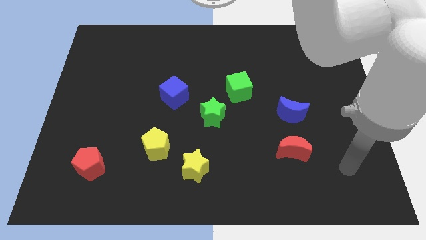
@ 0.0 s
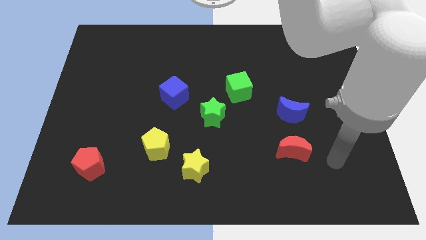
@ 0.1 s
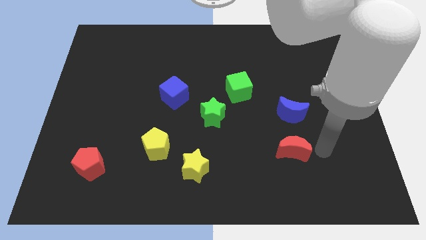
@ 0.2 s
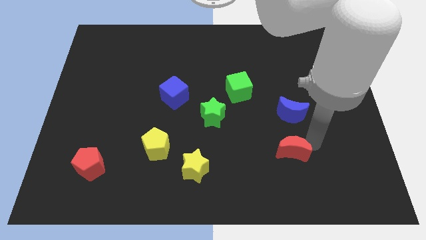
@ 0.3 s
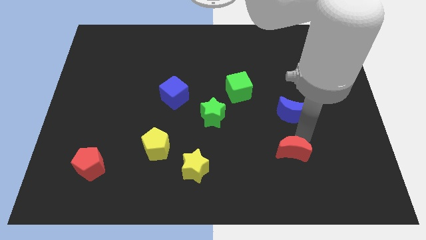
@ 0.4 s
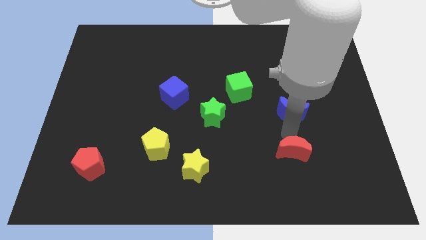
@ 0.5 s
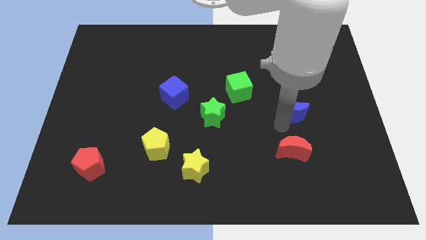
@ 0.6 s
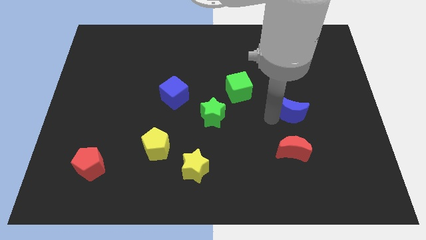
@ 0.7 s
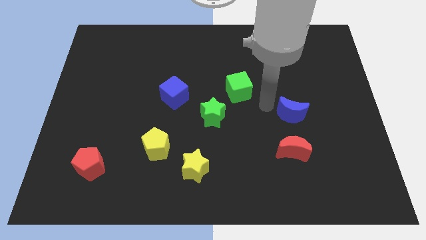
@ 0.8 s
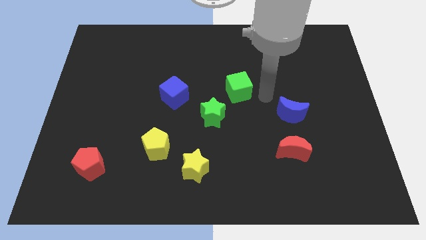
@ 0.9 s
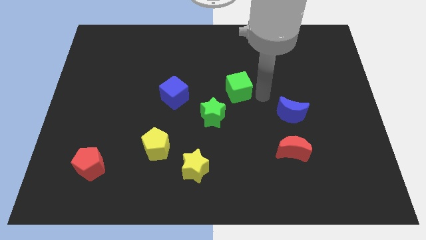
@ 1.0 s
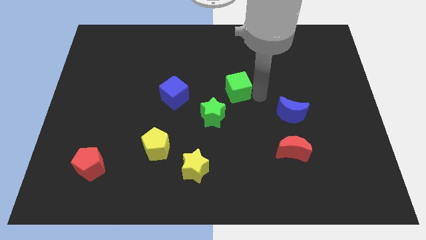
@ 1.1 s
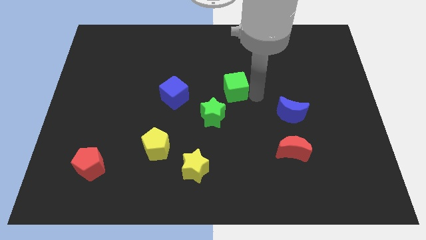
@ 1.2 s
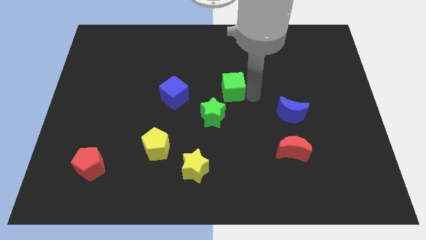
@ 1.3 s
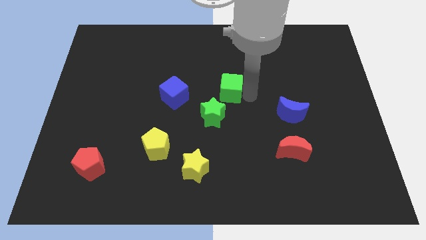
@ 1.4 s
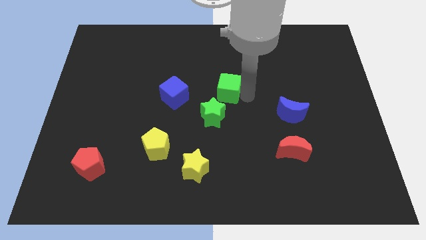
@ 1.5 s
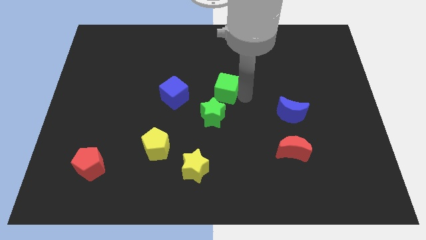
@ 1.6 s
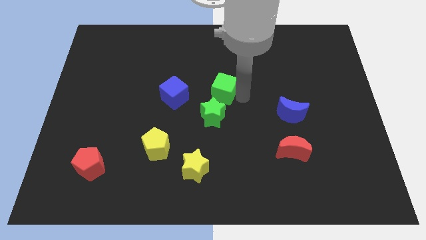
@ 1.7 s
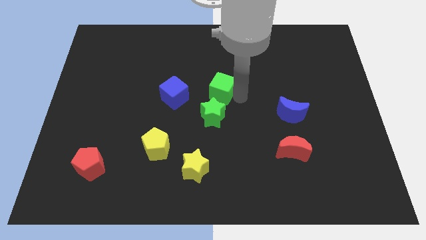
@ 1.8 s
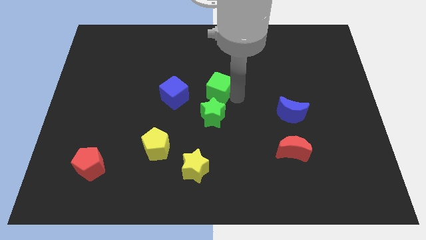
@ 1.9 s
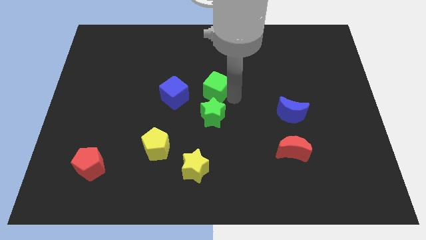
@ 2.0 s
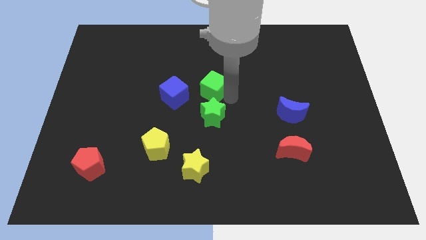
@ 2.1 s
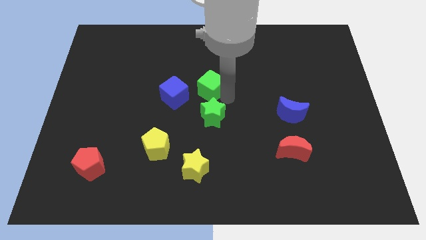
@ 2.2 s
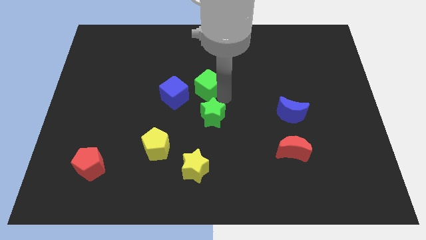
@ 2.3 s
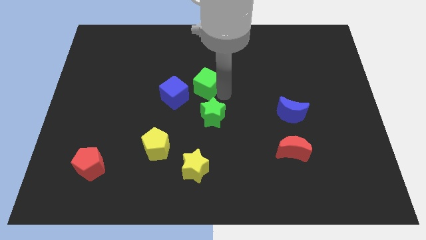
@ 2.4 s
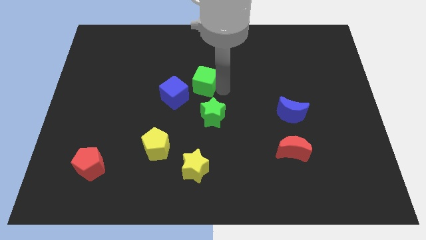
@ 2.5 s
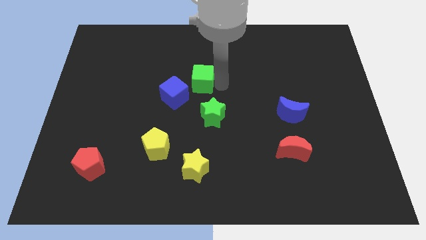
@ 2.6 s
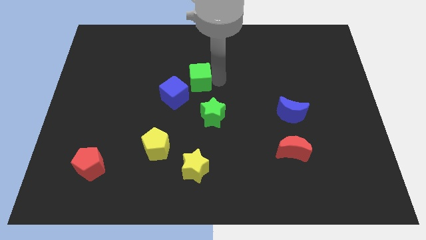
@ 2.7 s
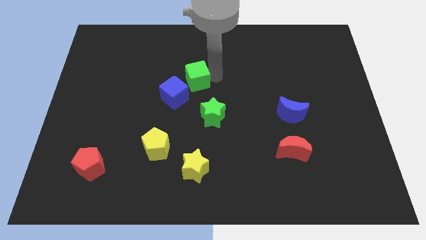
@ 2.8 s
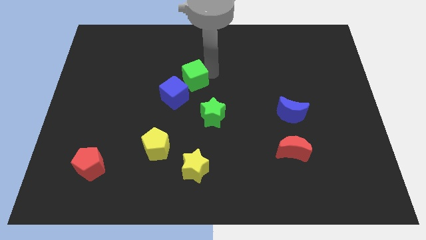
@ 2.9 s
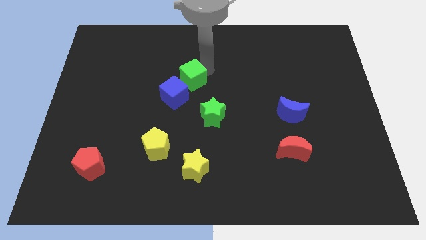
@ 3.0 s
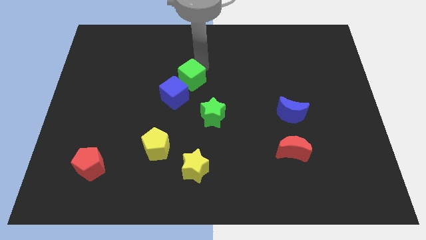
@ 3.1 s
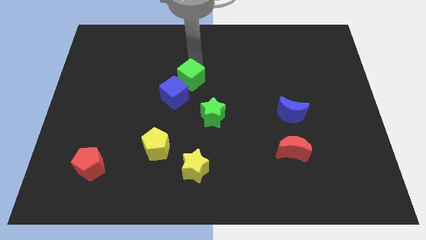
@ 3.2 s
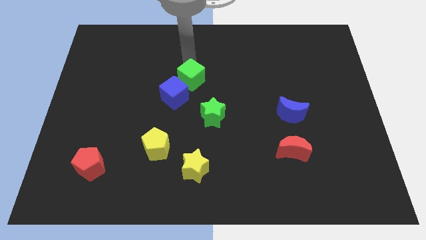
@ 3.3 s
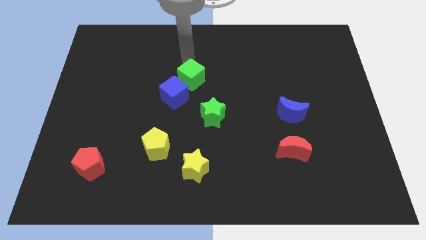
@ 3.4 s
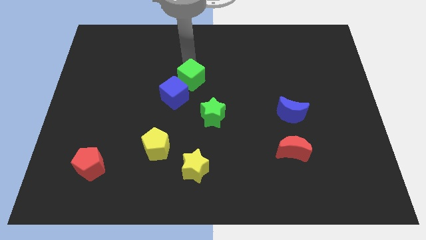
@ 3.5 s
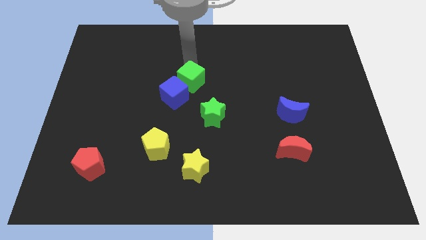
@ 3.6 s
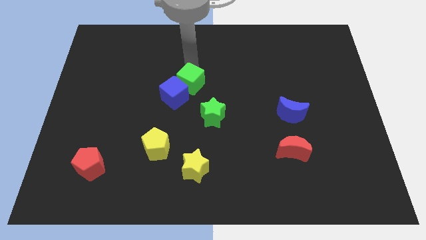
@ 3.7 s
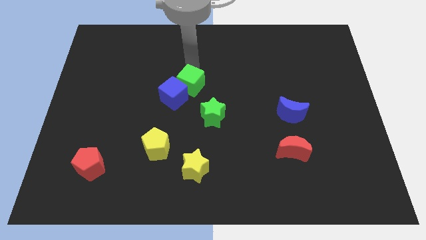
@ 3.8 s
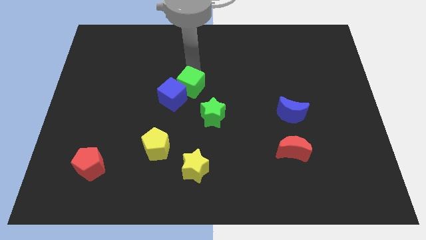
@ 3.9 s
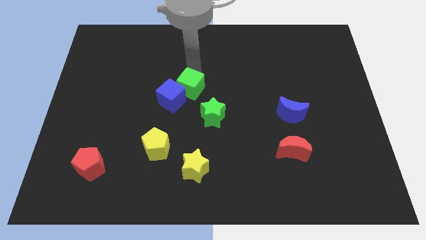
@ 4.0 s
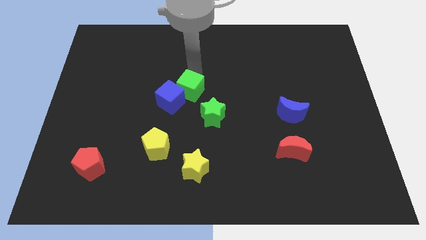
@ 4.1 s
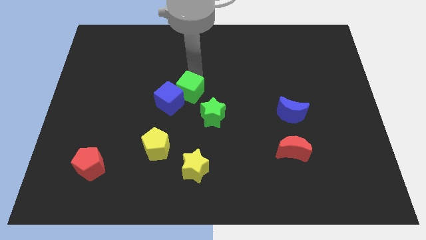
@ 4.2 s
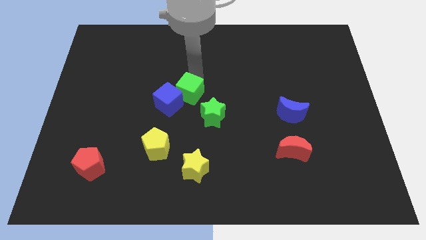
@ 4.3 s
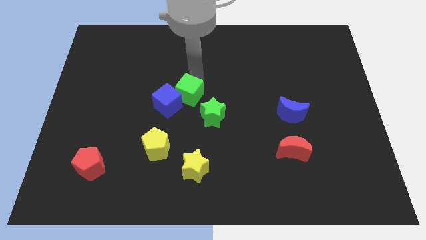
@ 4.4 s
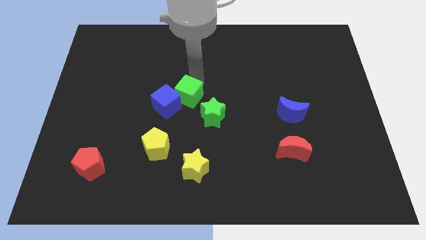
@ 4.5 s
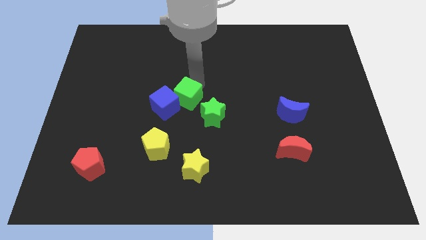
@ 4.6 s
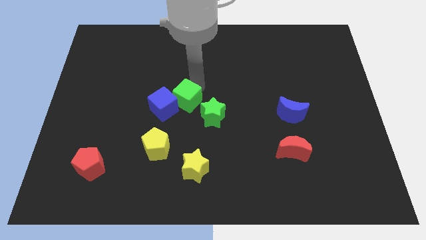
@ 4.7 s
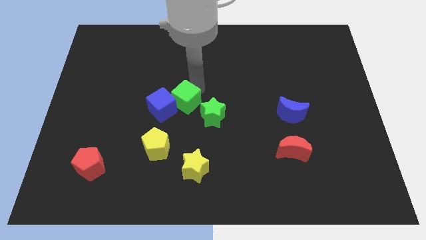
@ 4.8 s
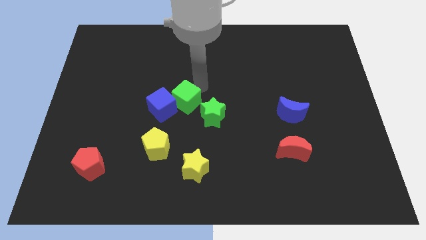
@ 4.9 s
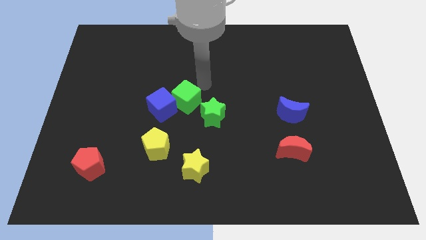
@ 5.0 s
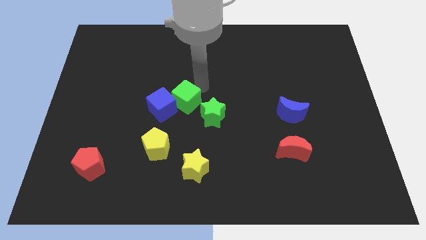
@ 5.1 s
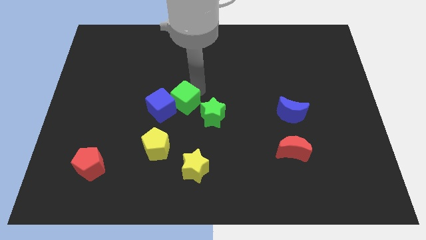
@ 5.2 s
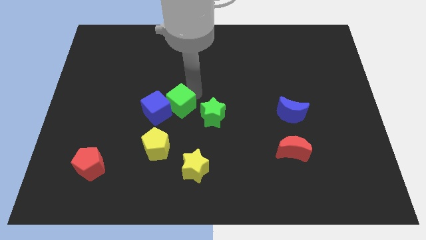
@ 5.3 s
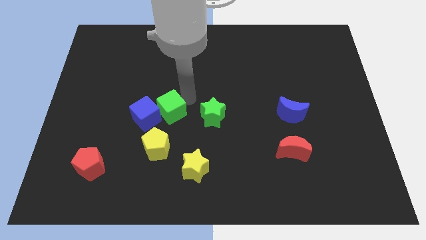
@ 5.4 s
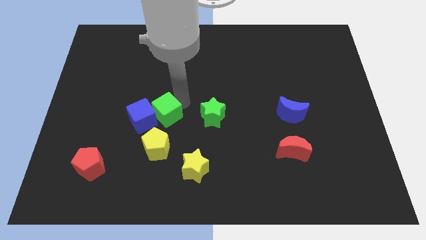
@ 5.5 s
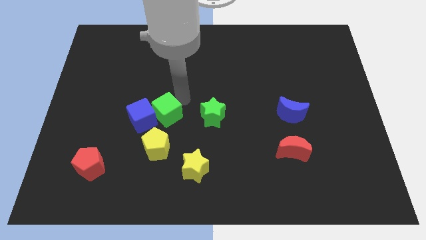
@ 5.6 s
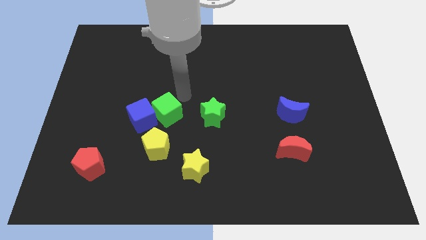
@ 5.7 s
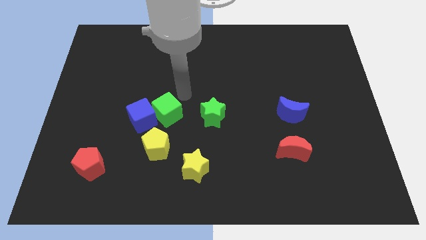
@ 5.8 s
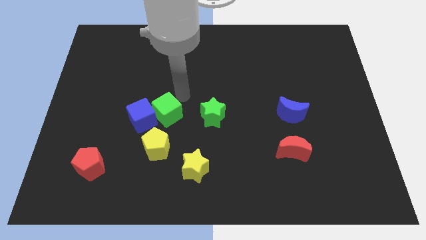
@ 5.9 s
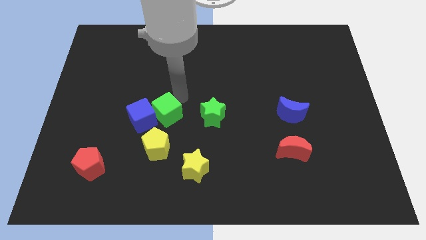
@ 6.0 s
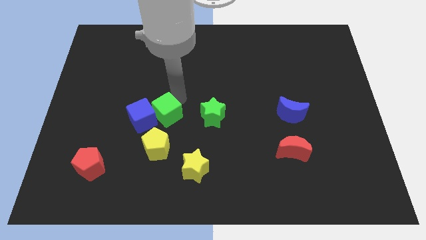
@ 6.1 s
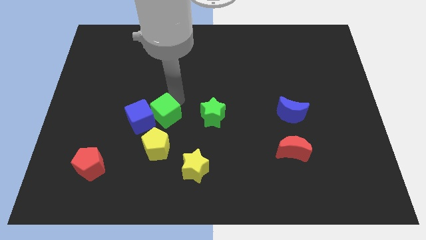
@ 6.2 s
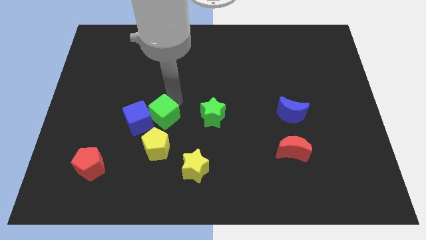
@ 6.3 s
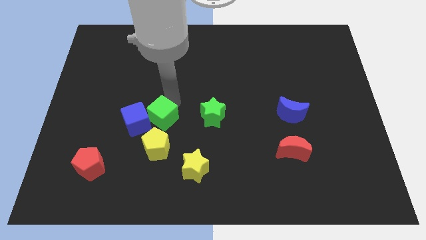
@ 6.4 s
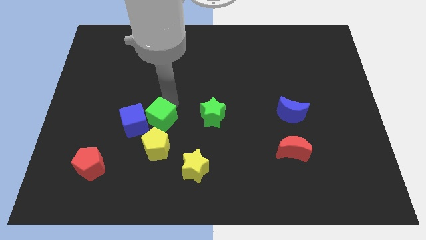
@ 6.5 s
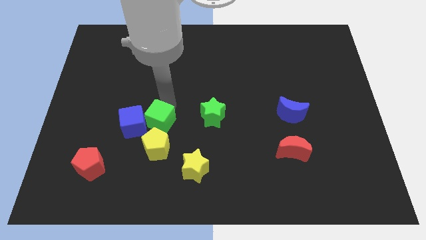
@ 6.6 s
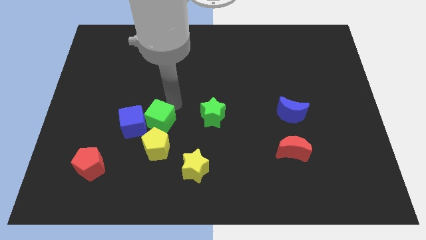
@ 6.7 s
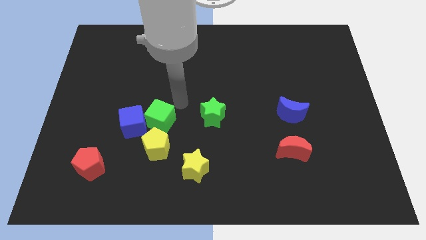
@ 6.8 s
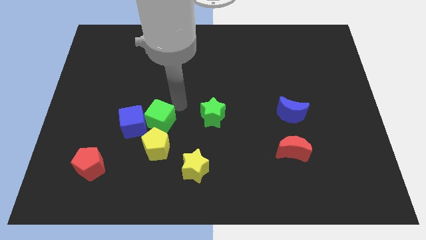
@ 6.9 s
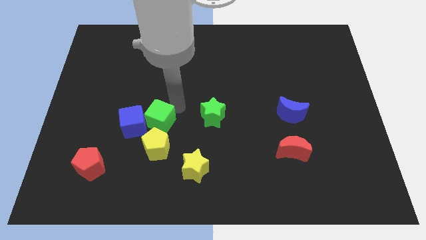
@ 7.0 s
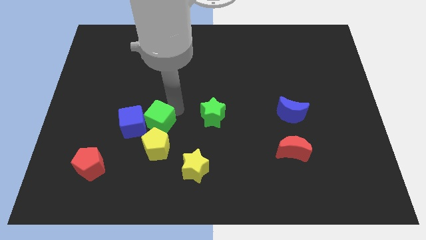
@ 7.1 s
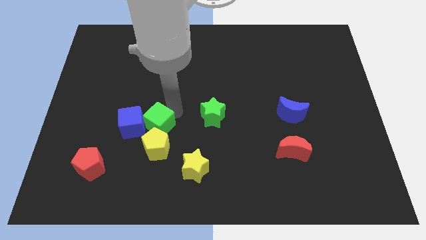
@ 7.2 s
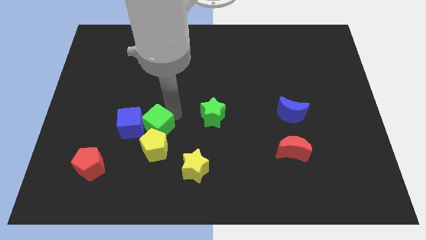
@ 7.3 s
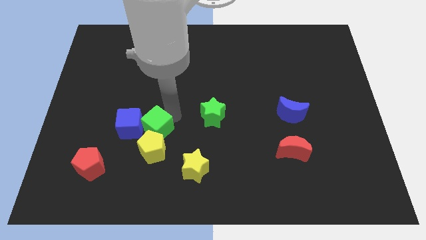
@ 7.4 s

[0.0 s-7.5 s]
move the green cube down and left diagonally

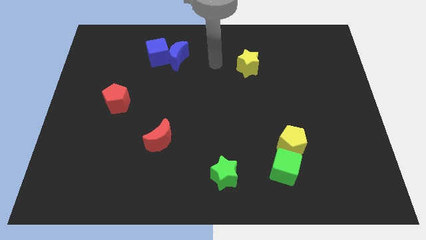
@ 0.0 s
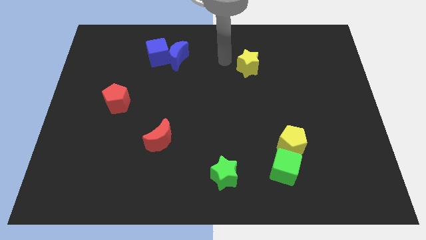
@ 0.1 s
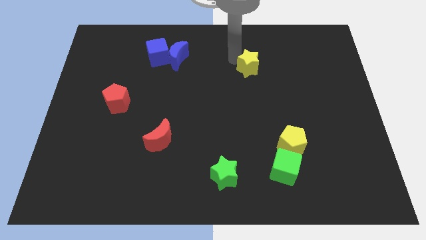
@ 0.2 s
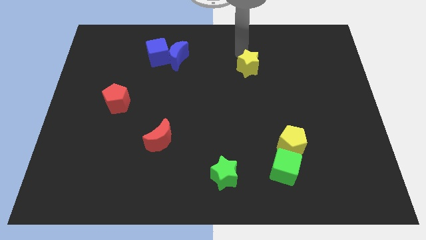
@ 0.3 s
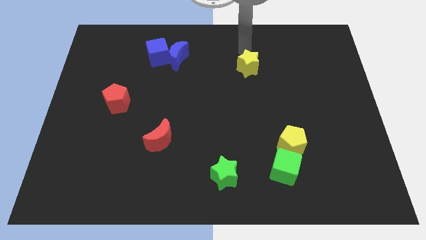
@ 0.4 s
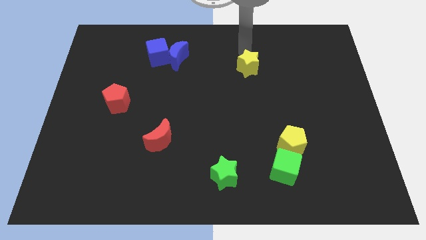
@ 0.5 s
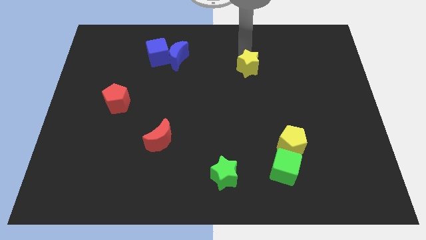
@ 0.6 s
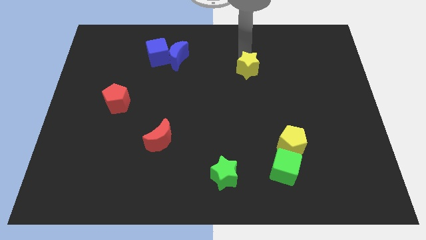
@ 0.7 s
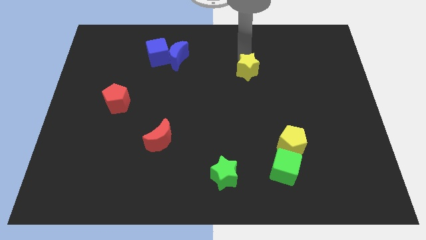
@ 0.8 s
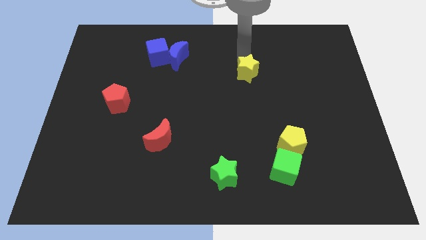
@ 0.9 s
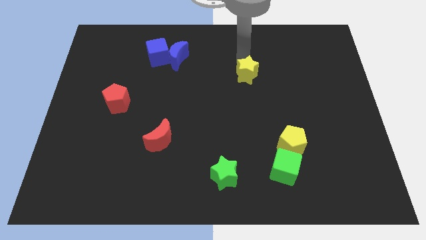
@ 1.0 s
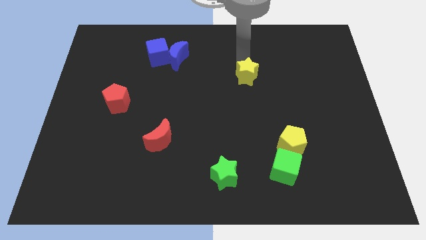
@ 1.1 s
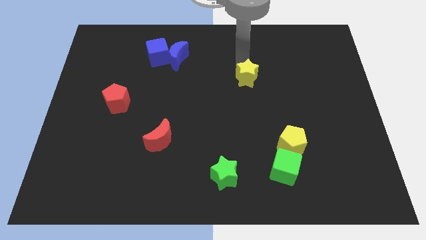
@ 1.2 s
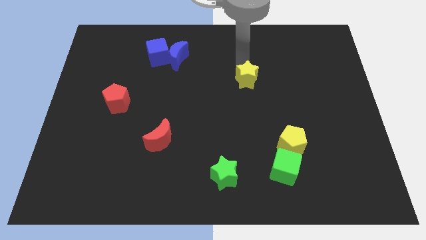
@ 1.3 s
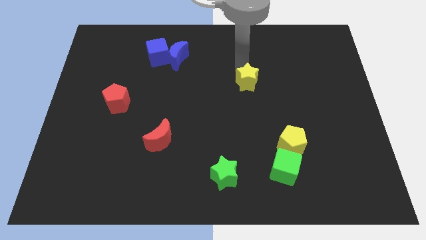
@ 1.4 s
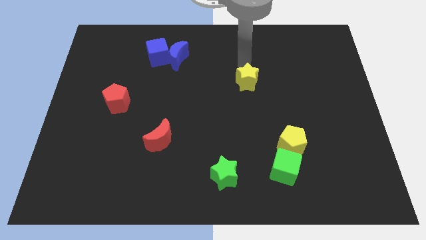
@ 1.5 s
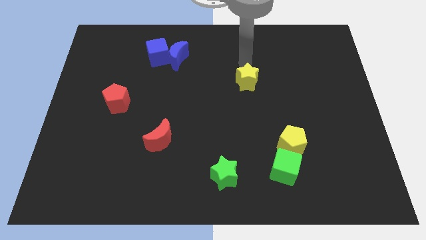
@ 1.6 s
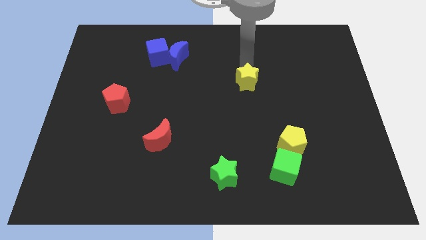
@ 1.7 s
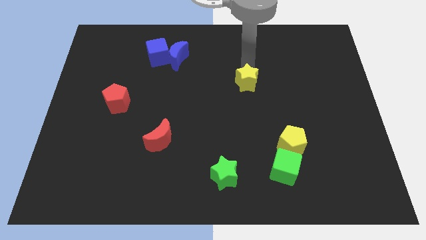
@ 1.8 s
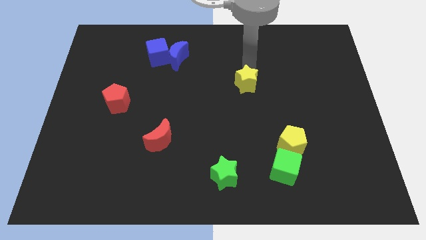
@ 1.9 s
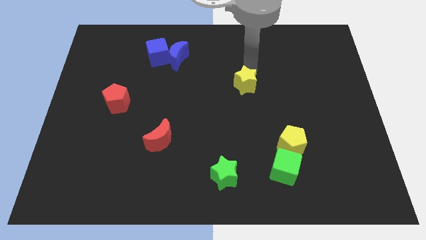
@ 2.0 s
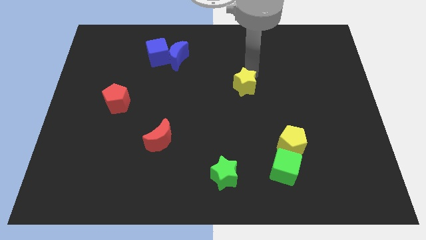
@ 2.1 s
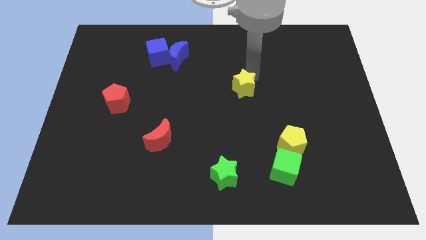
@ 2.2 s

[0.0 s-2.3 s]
slightly move the yellow star down
